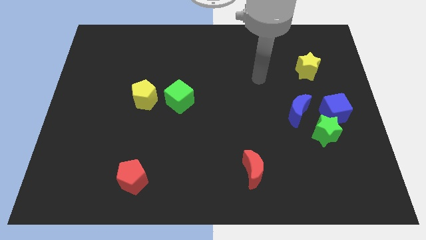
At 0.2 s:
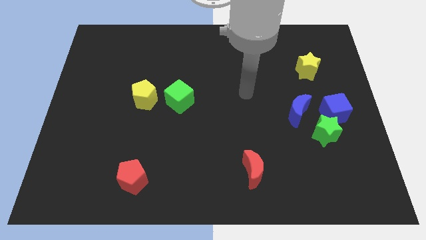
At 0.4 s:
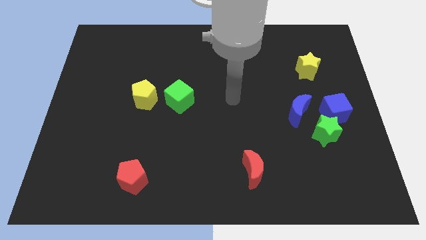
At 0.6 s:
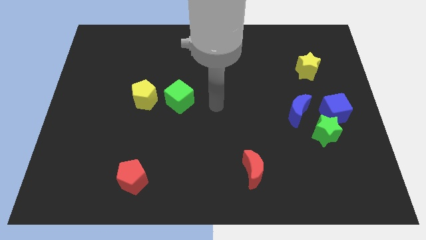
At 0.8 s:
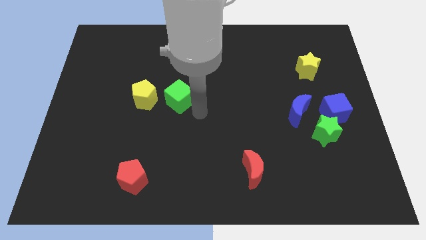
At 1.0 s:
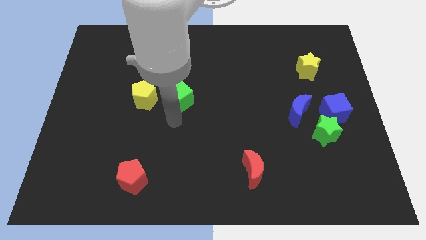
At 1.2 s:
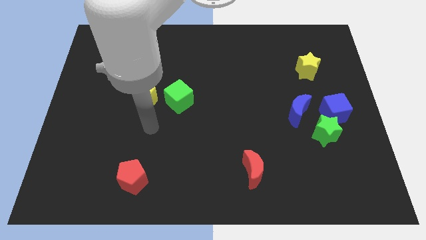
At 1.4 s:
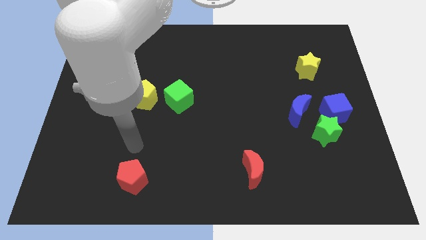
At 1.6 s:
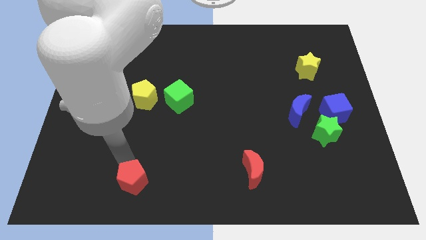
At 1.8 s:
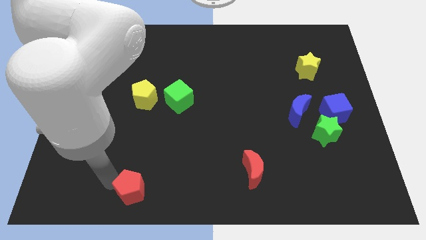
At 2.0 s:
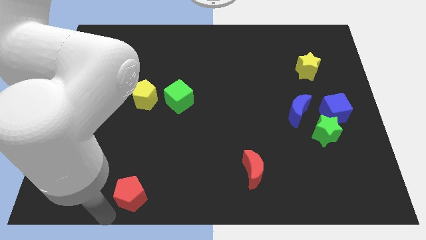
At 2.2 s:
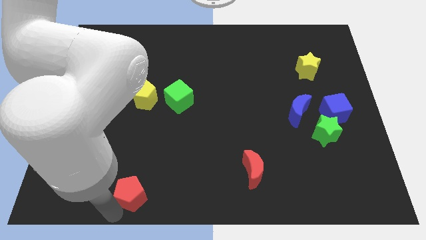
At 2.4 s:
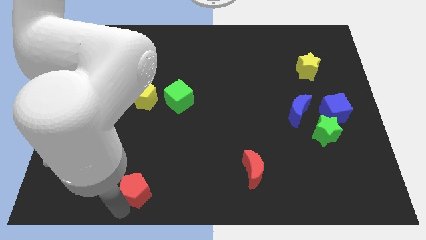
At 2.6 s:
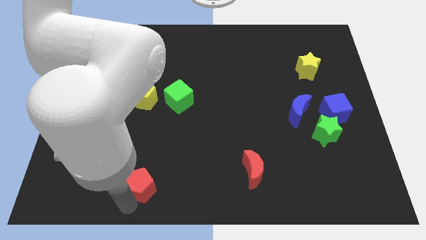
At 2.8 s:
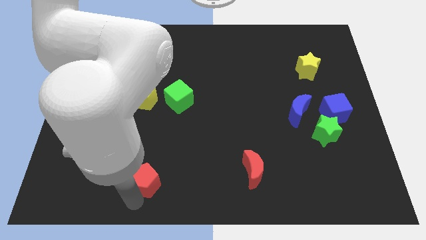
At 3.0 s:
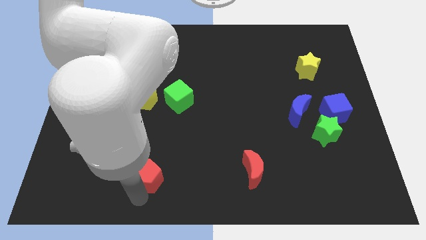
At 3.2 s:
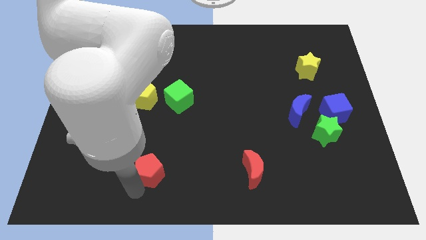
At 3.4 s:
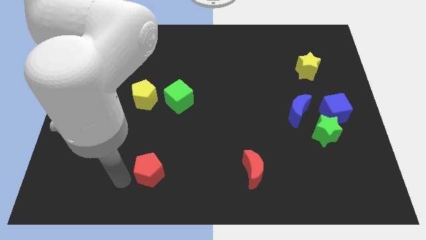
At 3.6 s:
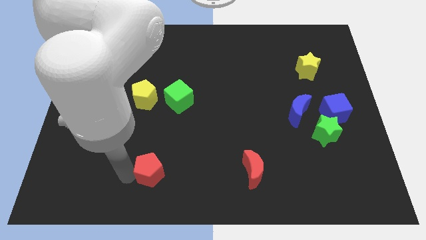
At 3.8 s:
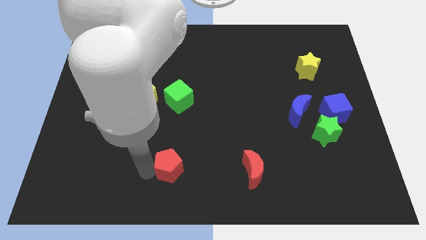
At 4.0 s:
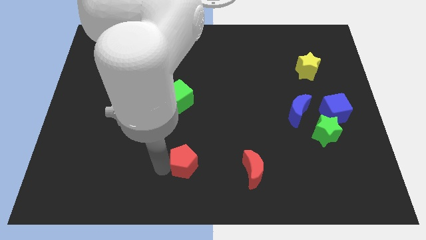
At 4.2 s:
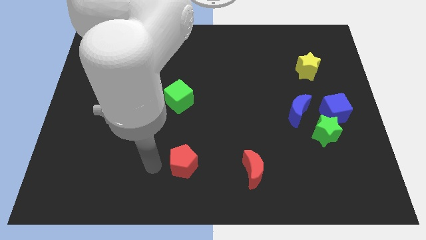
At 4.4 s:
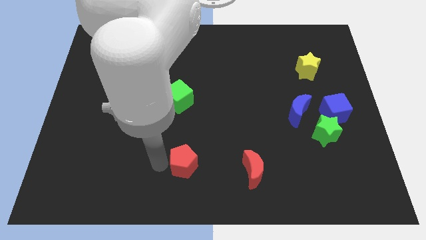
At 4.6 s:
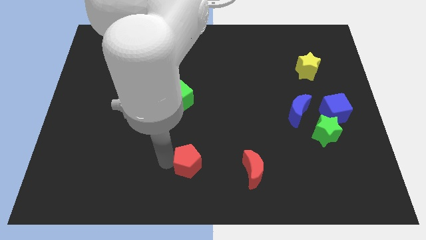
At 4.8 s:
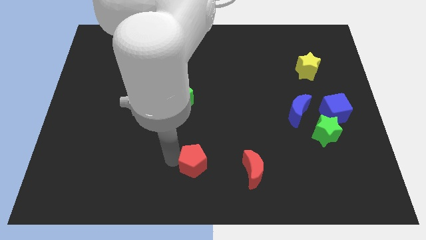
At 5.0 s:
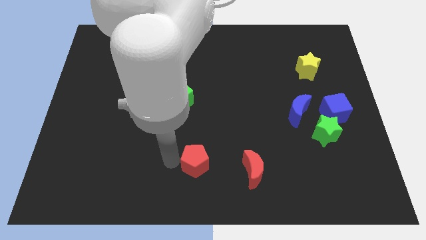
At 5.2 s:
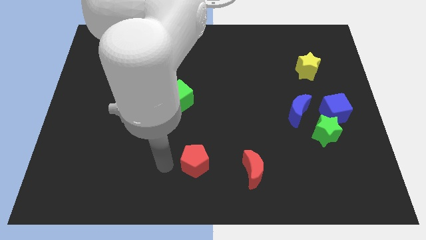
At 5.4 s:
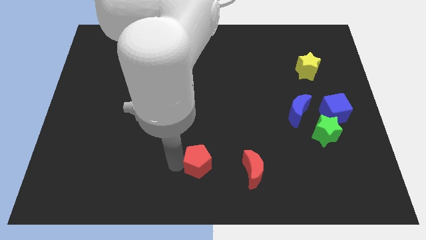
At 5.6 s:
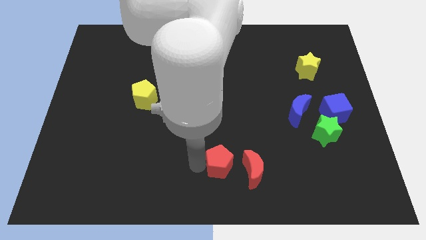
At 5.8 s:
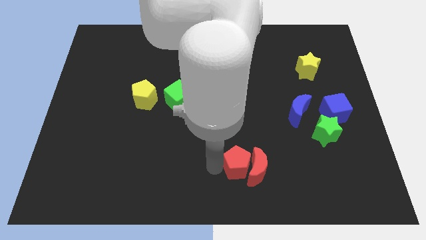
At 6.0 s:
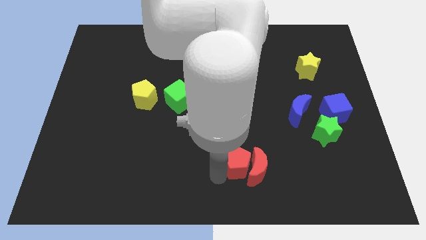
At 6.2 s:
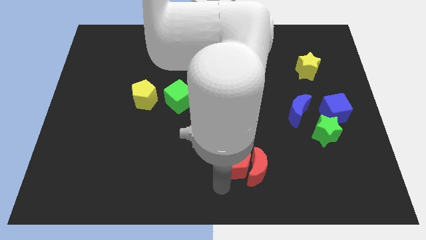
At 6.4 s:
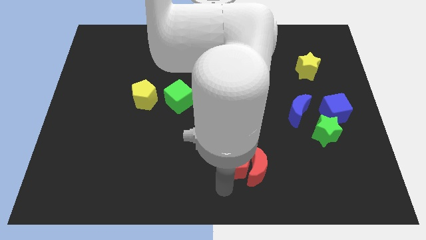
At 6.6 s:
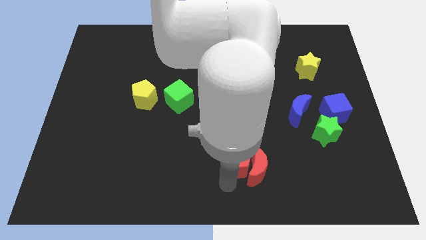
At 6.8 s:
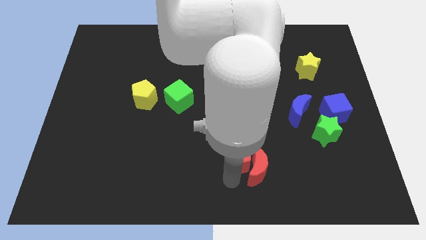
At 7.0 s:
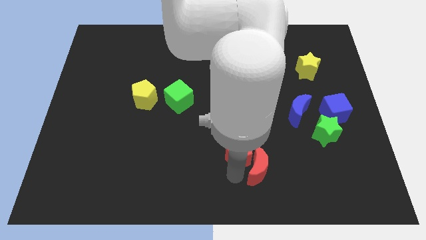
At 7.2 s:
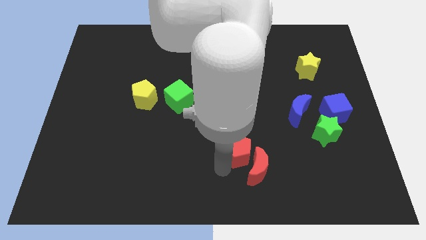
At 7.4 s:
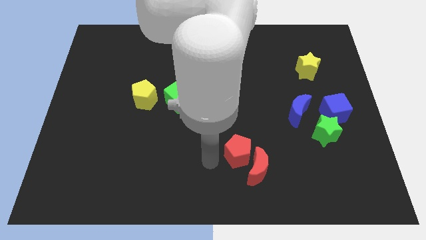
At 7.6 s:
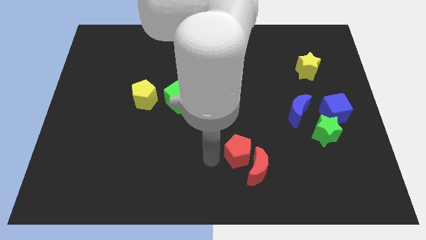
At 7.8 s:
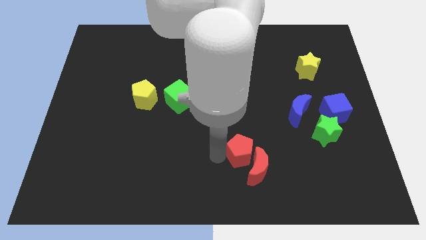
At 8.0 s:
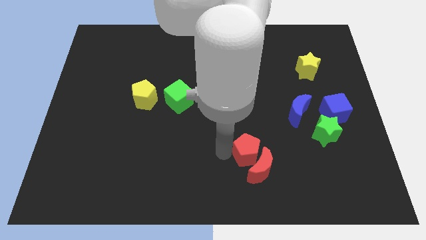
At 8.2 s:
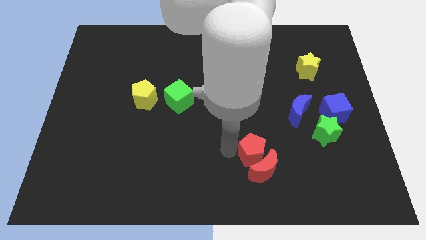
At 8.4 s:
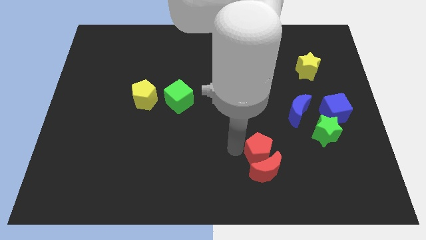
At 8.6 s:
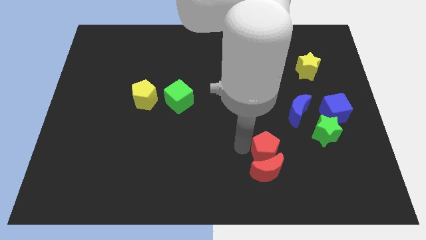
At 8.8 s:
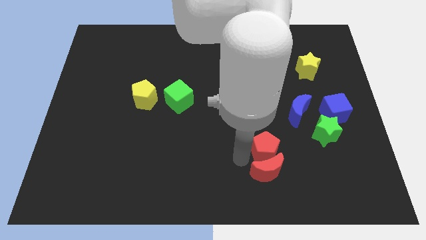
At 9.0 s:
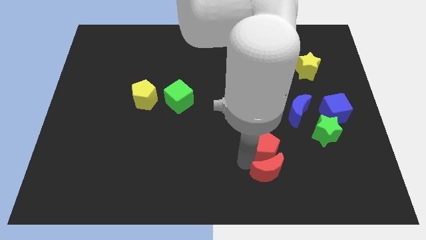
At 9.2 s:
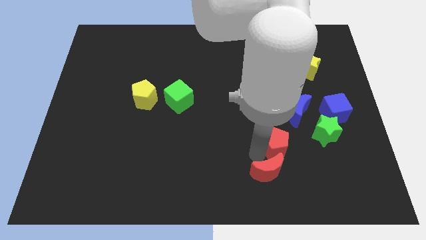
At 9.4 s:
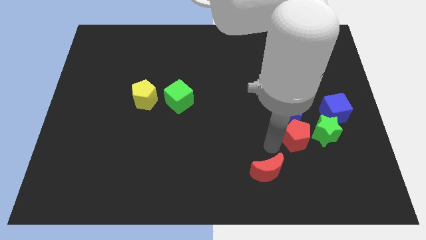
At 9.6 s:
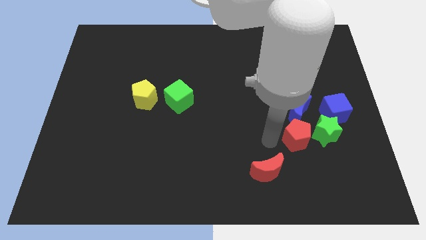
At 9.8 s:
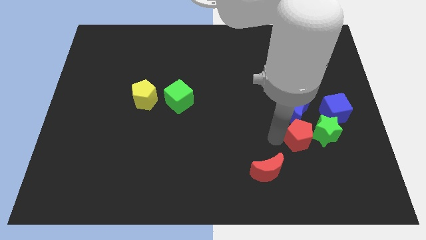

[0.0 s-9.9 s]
push the red pentagon close to the green star

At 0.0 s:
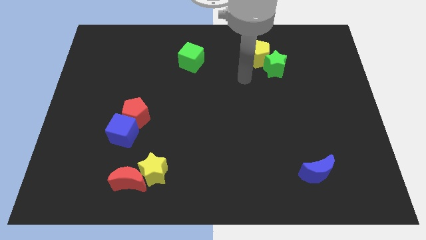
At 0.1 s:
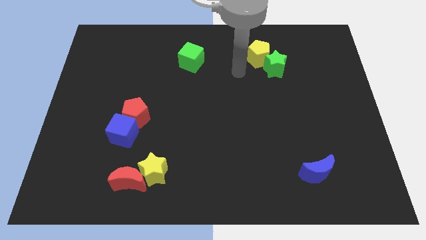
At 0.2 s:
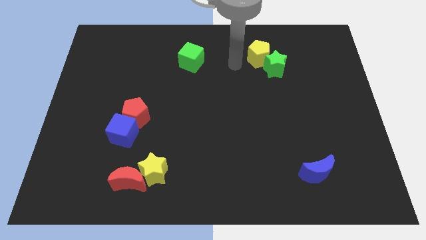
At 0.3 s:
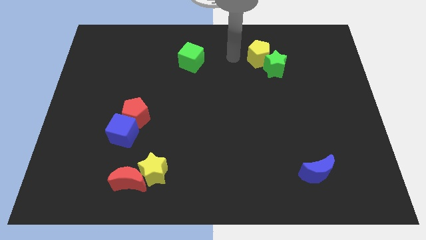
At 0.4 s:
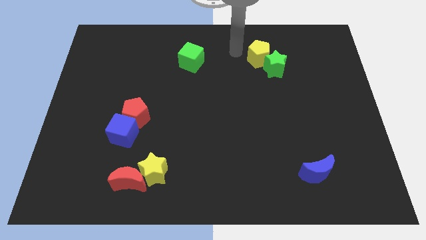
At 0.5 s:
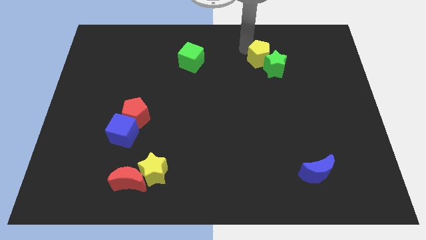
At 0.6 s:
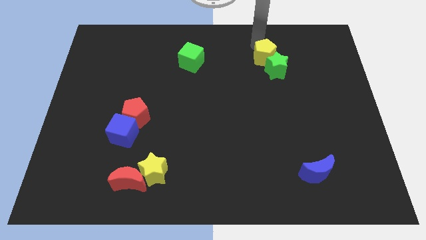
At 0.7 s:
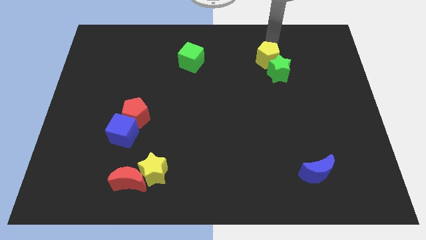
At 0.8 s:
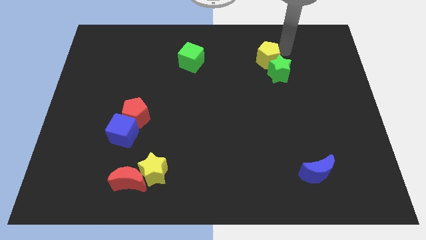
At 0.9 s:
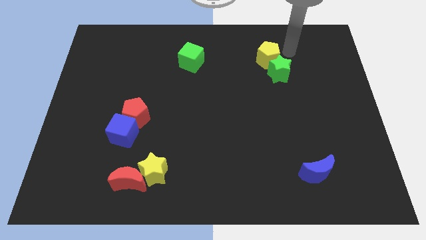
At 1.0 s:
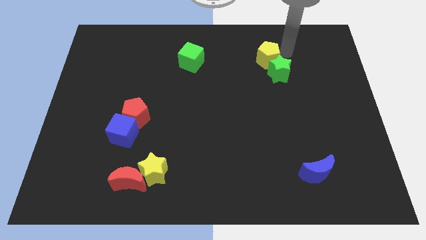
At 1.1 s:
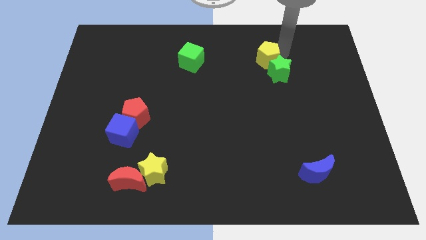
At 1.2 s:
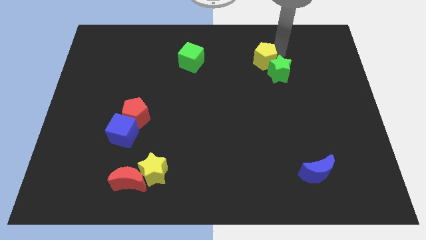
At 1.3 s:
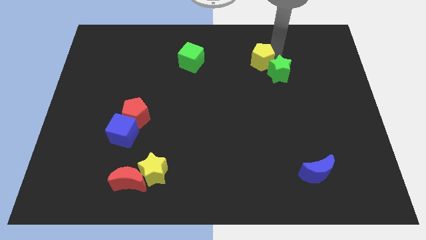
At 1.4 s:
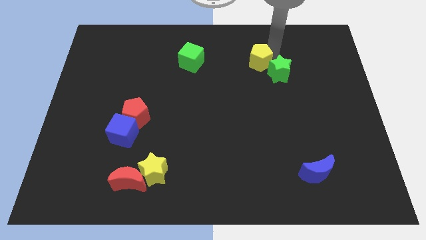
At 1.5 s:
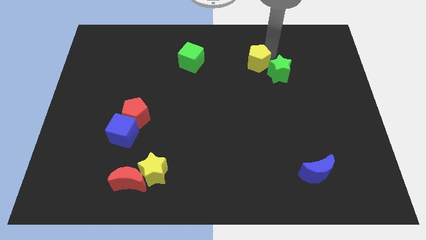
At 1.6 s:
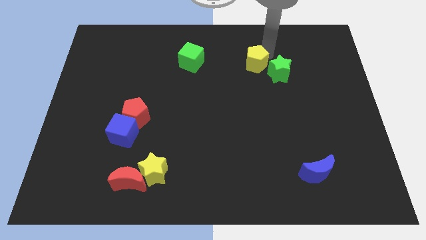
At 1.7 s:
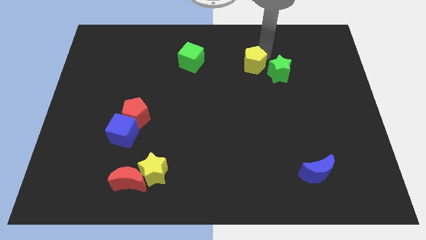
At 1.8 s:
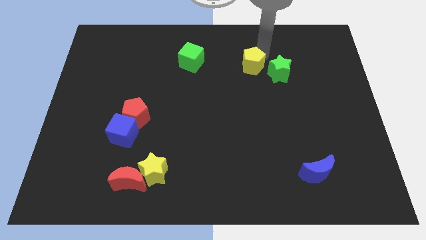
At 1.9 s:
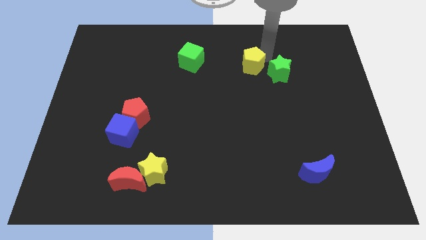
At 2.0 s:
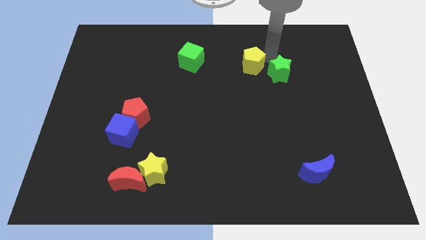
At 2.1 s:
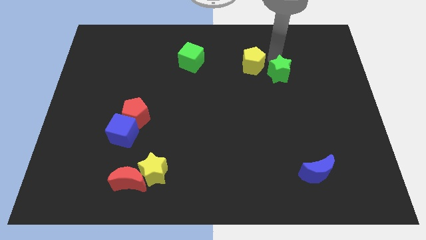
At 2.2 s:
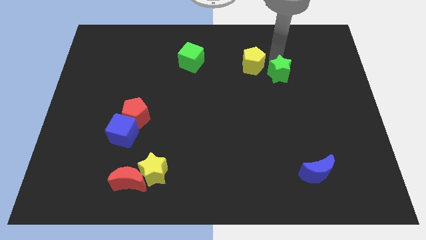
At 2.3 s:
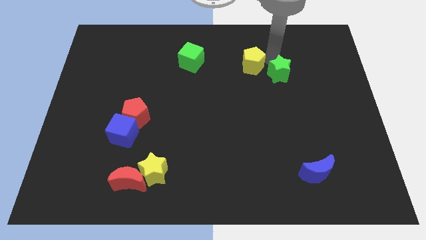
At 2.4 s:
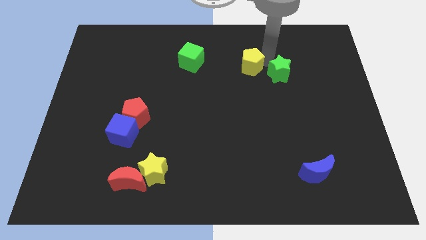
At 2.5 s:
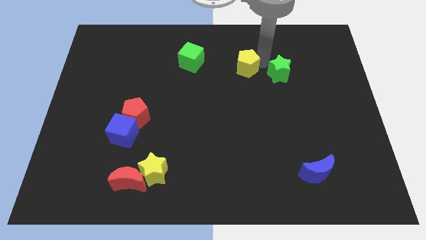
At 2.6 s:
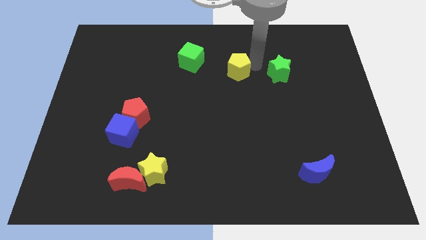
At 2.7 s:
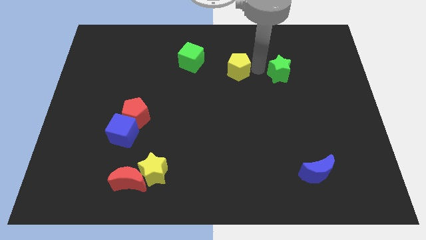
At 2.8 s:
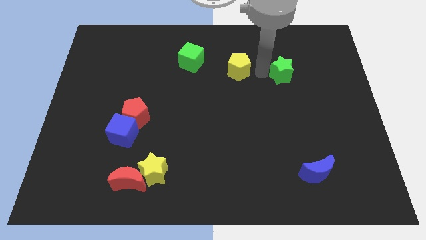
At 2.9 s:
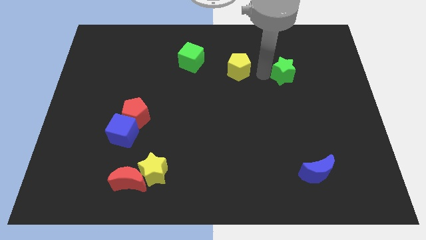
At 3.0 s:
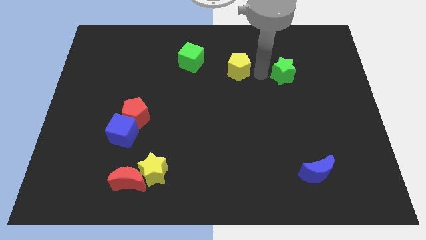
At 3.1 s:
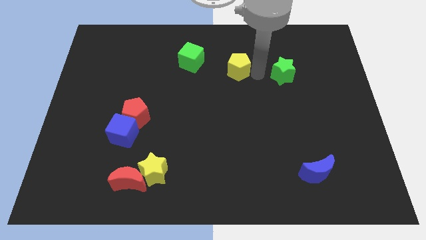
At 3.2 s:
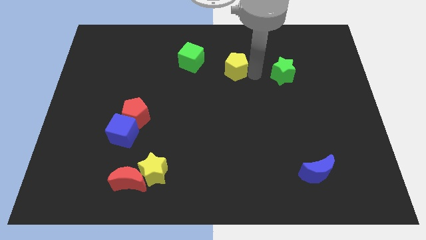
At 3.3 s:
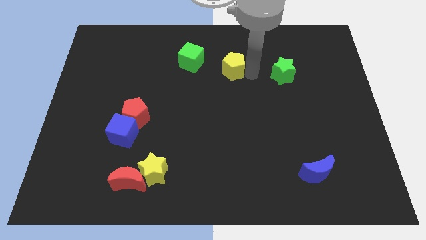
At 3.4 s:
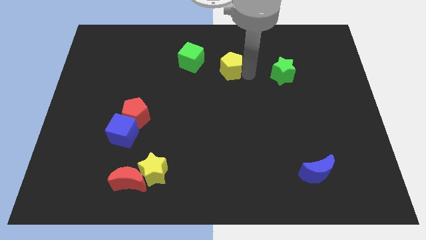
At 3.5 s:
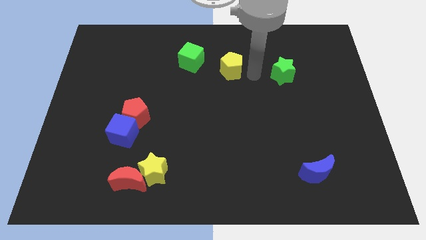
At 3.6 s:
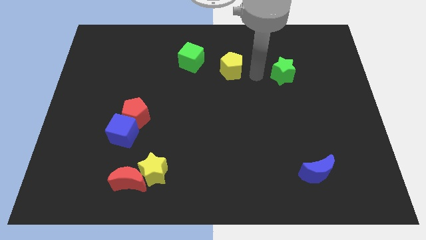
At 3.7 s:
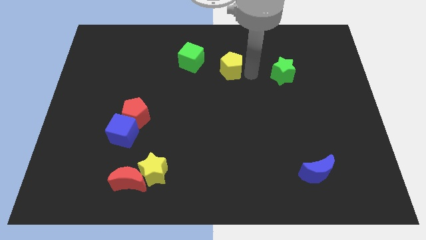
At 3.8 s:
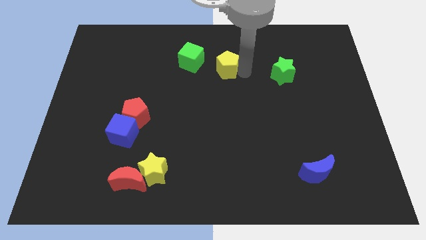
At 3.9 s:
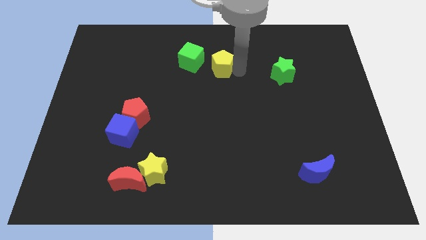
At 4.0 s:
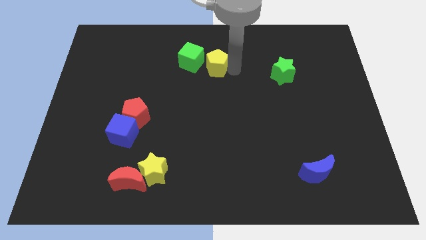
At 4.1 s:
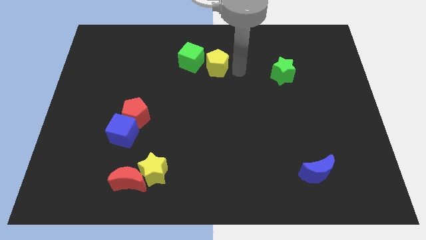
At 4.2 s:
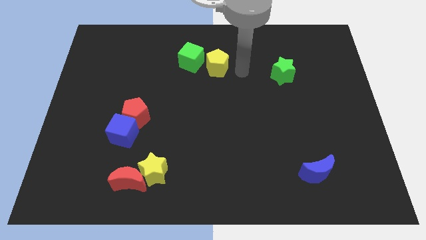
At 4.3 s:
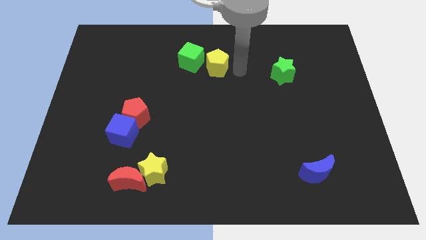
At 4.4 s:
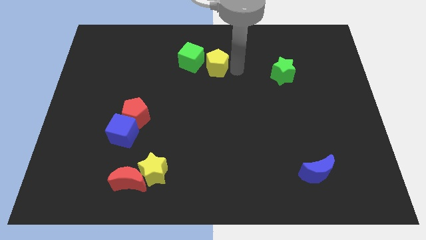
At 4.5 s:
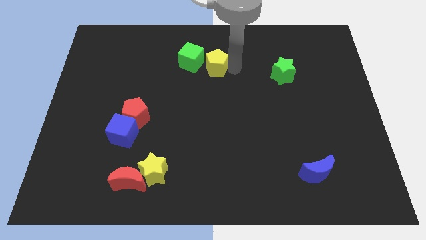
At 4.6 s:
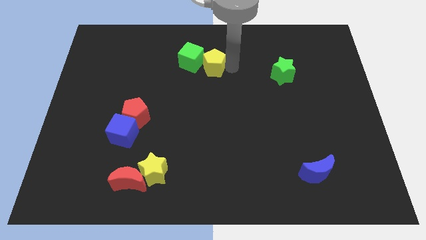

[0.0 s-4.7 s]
move the yellow pentagon towards the green cube
